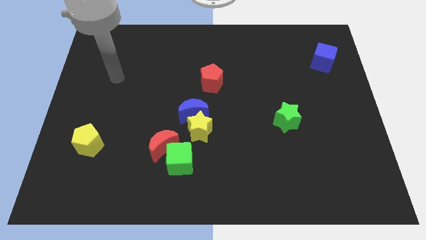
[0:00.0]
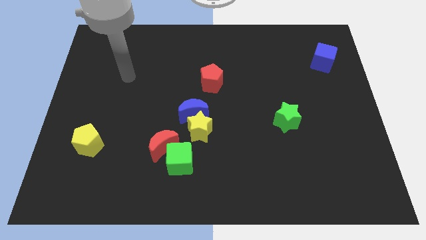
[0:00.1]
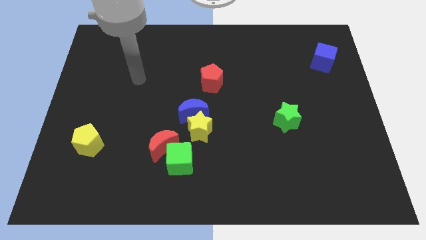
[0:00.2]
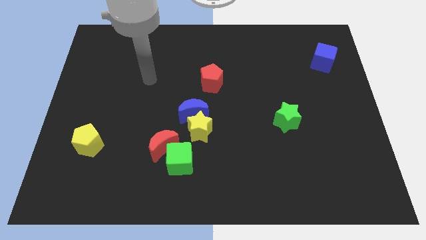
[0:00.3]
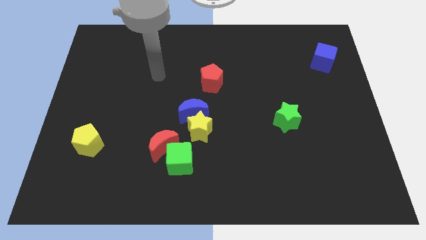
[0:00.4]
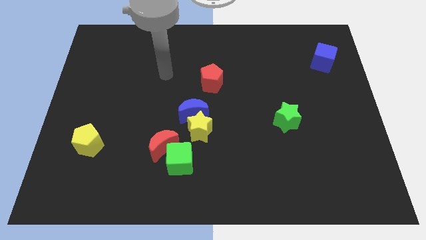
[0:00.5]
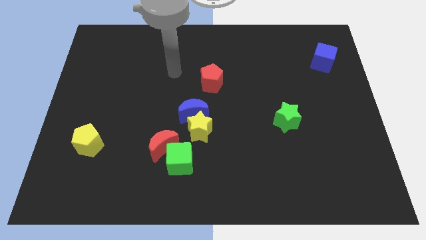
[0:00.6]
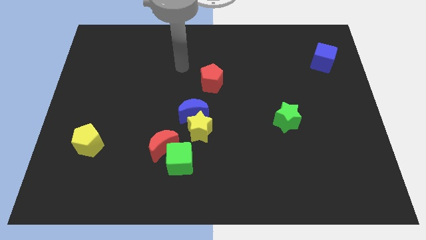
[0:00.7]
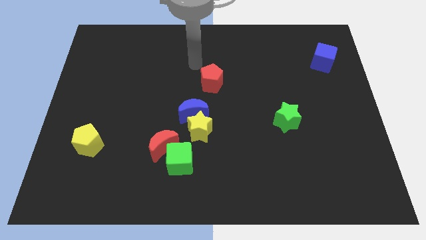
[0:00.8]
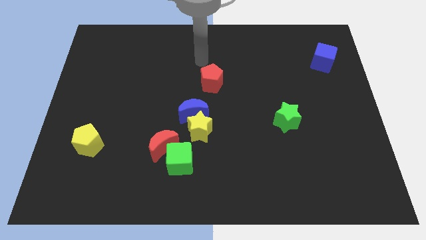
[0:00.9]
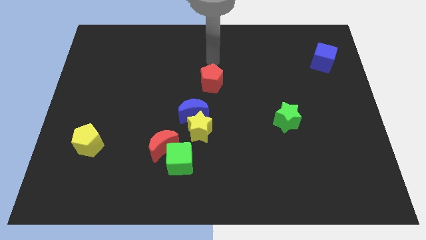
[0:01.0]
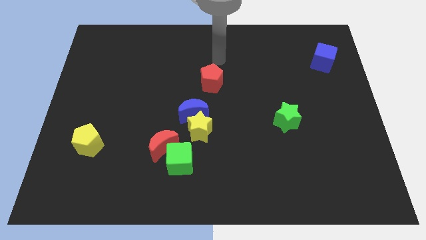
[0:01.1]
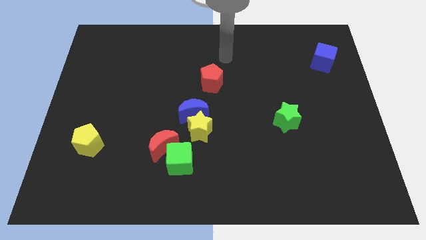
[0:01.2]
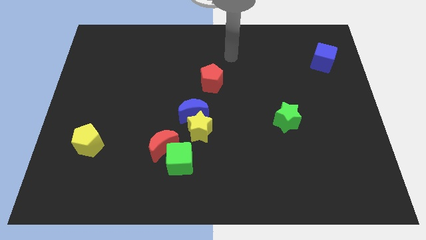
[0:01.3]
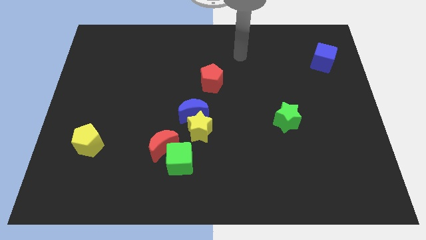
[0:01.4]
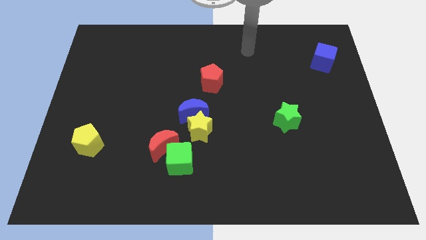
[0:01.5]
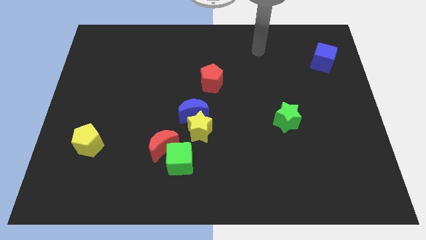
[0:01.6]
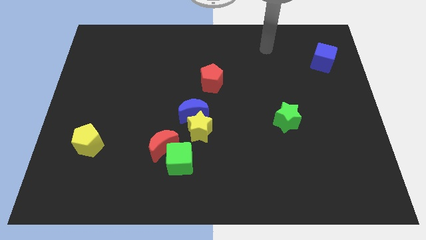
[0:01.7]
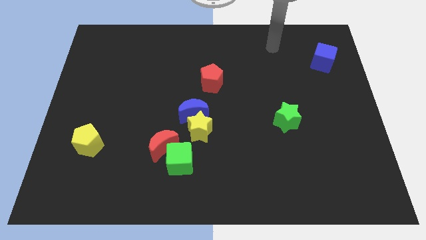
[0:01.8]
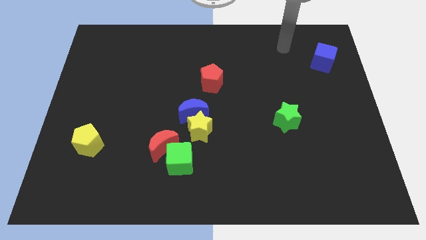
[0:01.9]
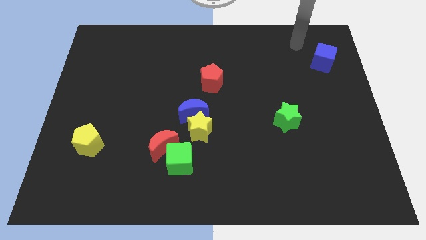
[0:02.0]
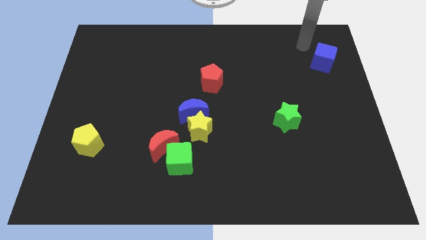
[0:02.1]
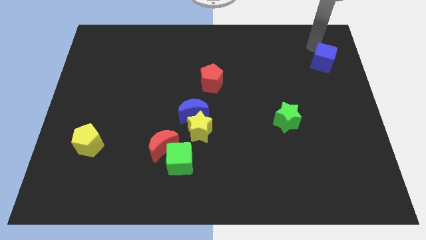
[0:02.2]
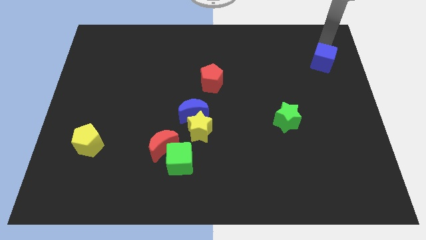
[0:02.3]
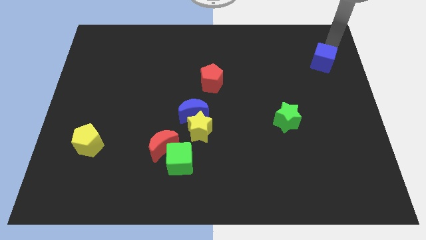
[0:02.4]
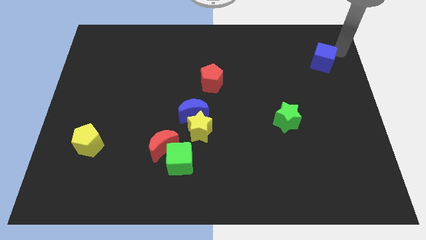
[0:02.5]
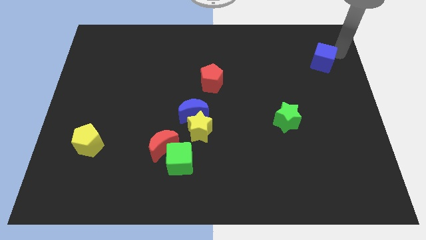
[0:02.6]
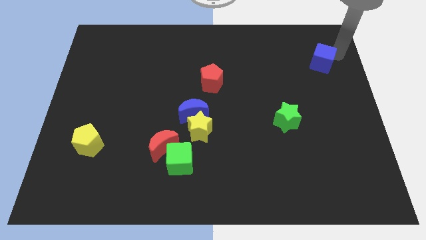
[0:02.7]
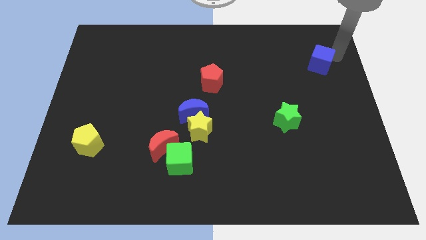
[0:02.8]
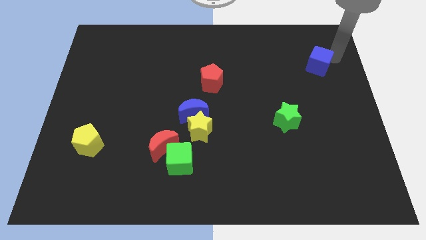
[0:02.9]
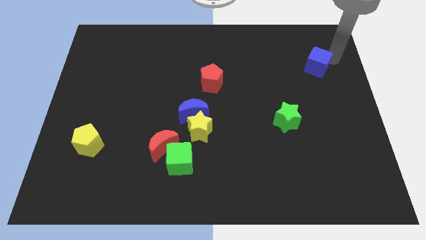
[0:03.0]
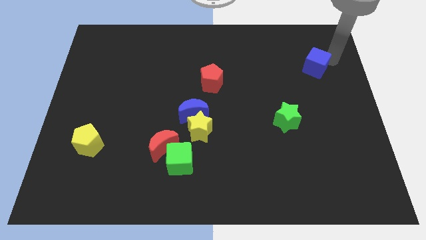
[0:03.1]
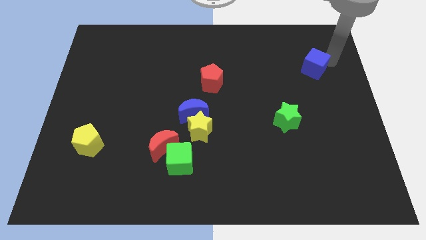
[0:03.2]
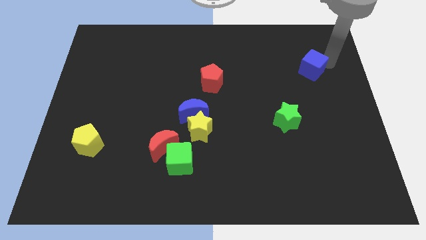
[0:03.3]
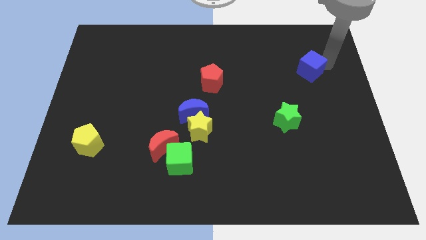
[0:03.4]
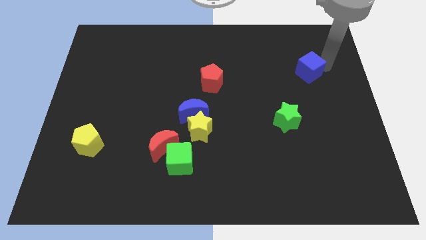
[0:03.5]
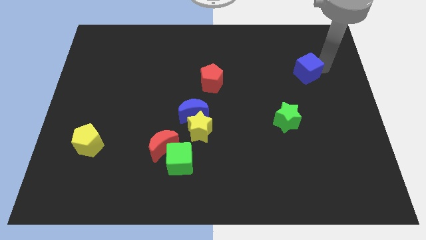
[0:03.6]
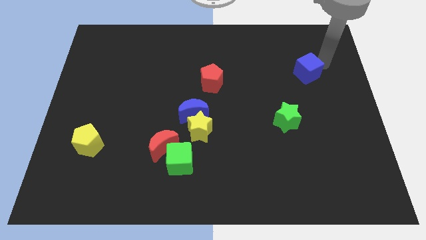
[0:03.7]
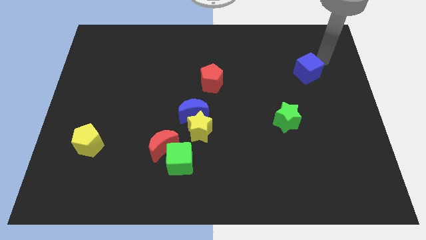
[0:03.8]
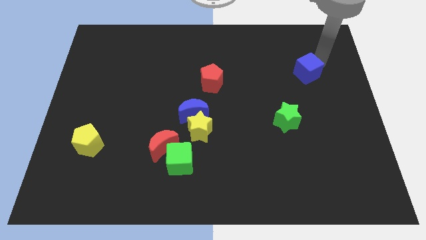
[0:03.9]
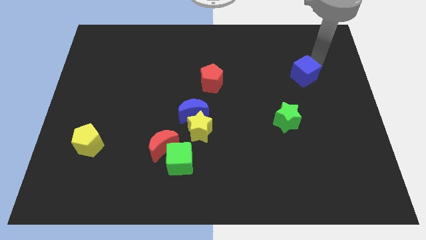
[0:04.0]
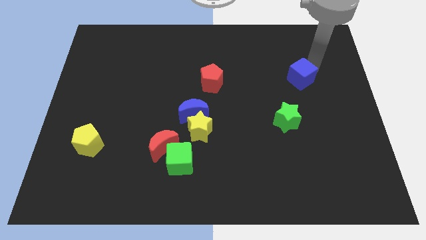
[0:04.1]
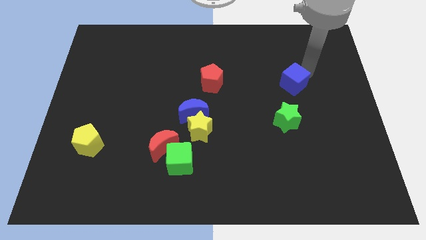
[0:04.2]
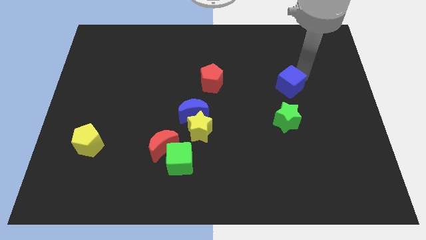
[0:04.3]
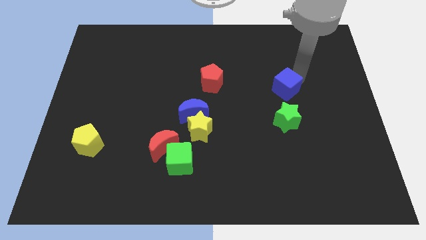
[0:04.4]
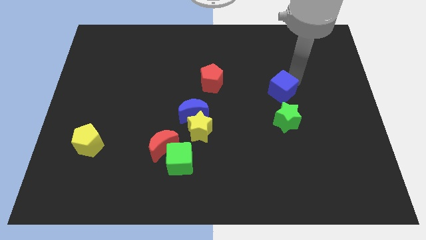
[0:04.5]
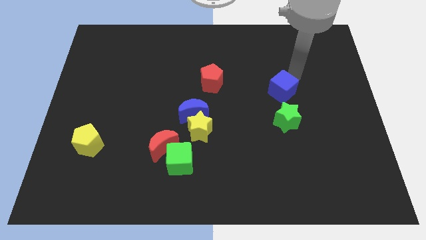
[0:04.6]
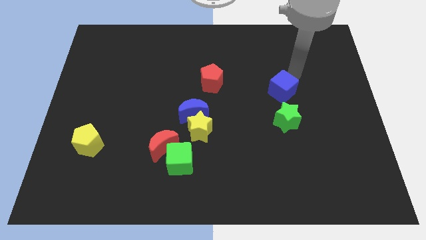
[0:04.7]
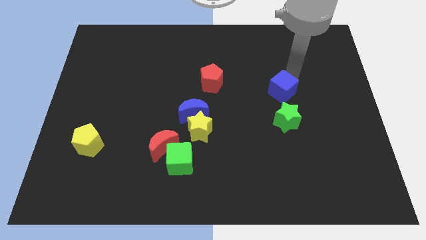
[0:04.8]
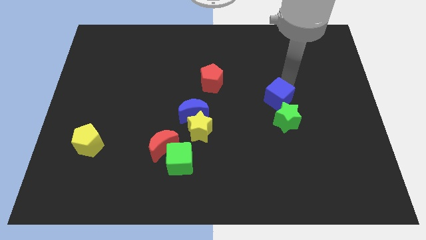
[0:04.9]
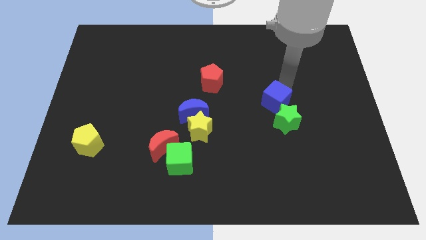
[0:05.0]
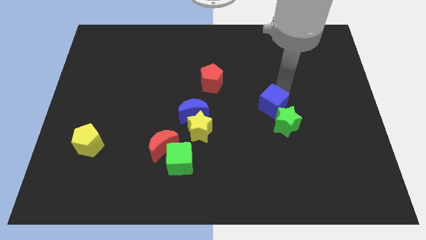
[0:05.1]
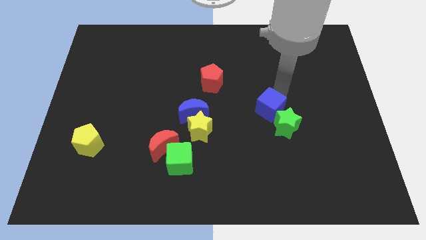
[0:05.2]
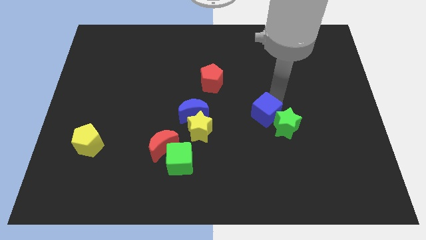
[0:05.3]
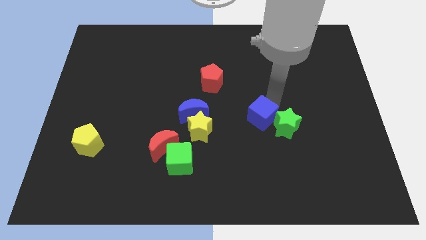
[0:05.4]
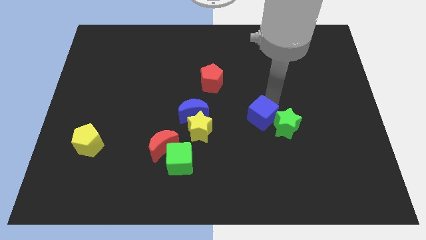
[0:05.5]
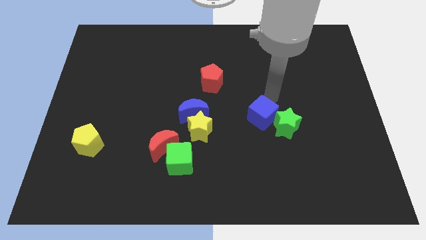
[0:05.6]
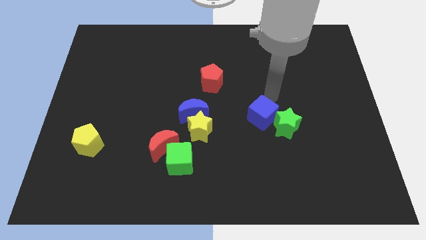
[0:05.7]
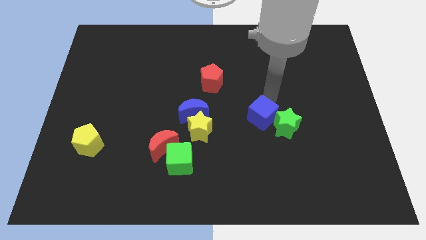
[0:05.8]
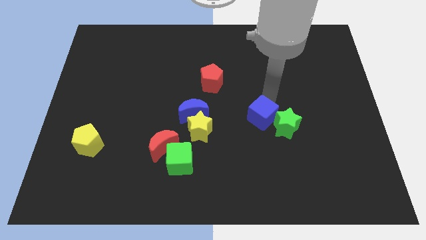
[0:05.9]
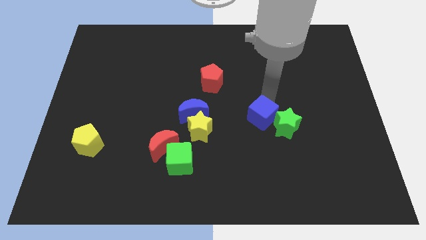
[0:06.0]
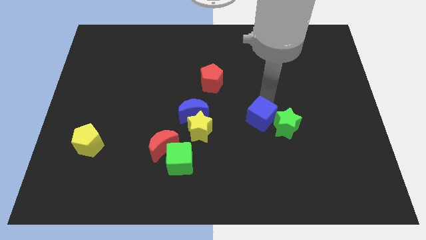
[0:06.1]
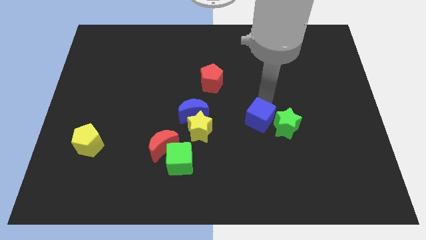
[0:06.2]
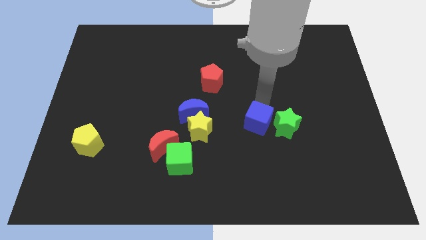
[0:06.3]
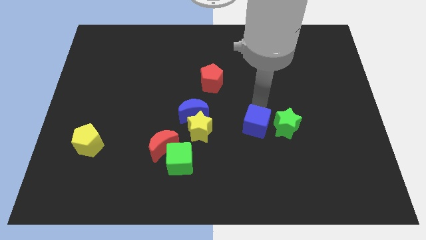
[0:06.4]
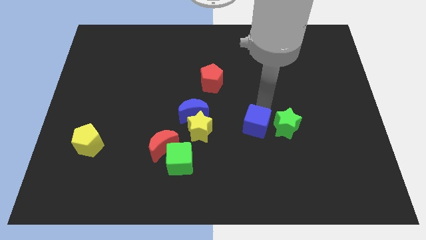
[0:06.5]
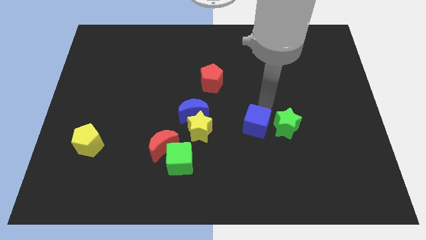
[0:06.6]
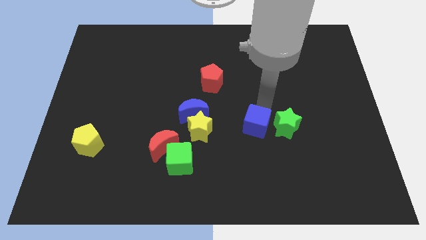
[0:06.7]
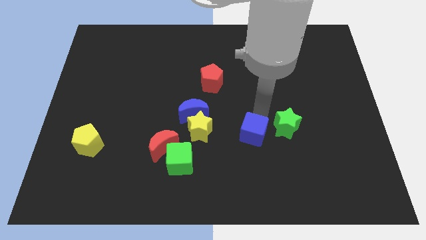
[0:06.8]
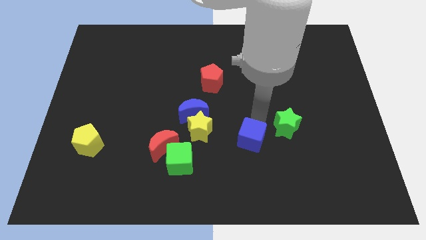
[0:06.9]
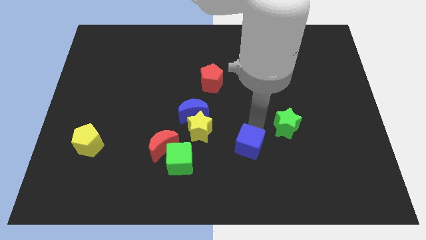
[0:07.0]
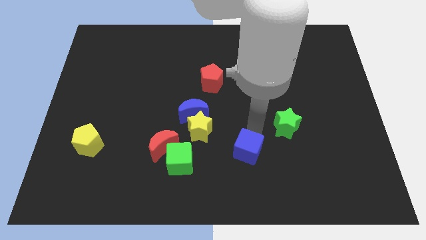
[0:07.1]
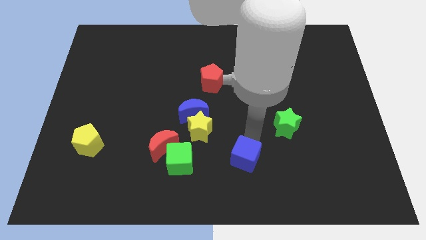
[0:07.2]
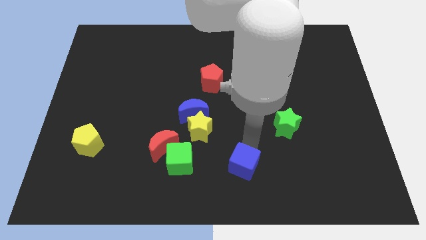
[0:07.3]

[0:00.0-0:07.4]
slide the blue cube to the bottom
